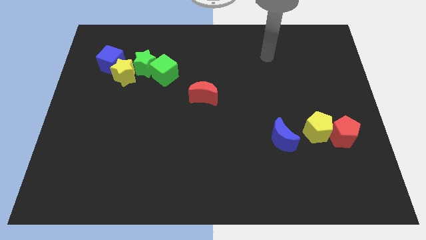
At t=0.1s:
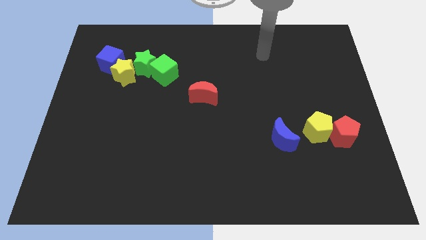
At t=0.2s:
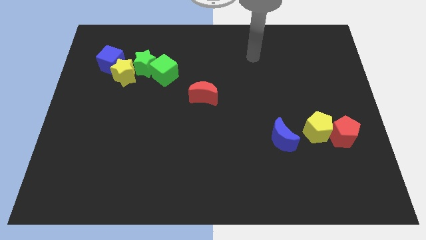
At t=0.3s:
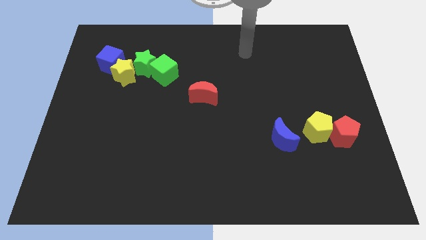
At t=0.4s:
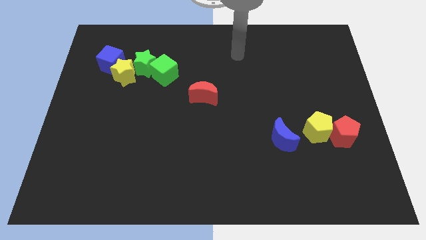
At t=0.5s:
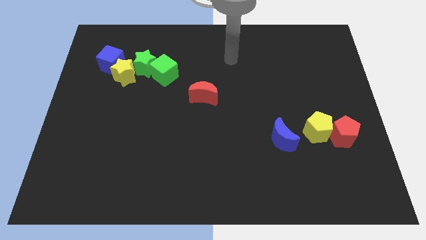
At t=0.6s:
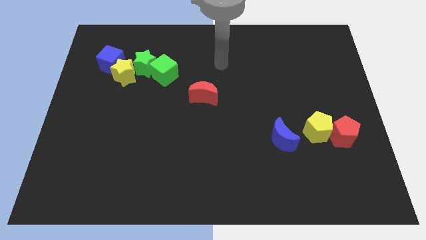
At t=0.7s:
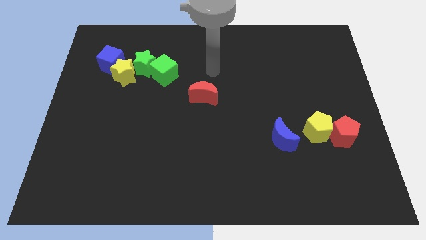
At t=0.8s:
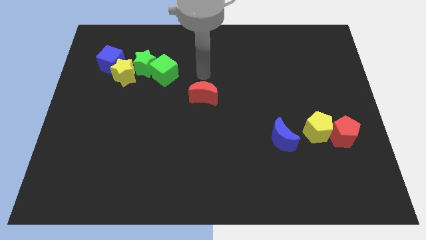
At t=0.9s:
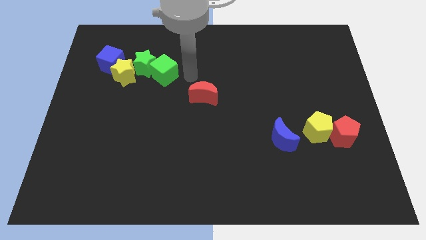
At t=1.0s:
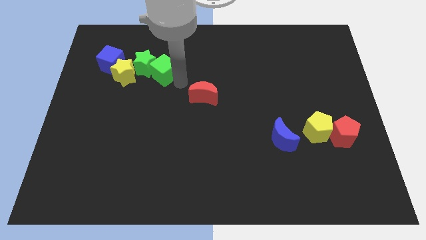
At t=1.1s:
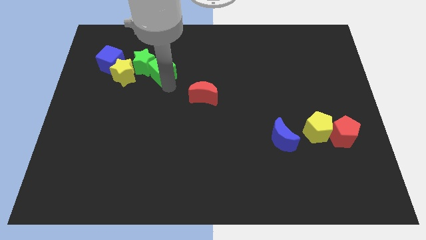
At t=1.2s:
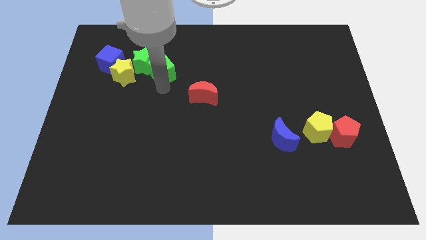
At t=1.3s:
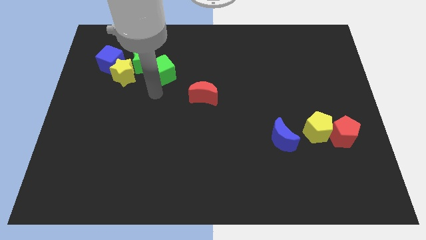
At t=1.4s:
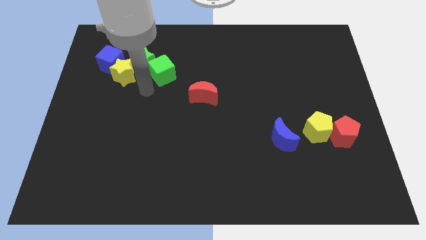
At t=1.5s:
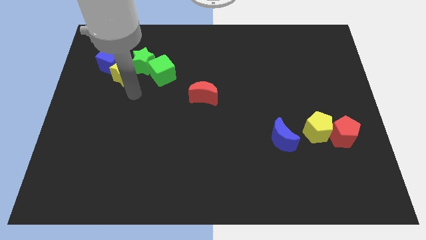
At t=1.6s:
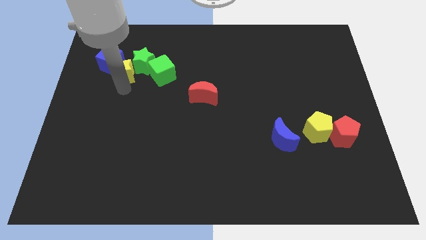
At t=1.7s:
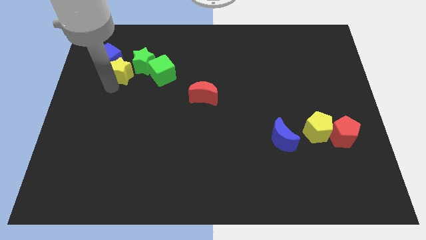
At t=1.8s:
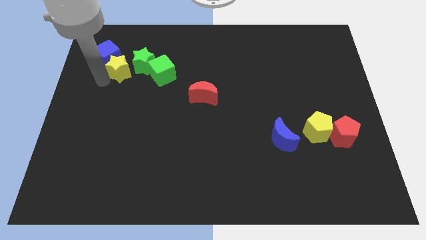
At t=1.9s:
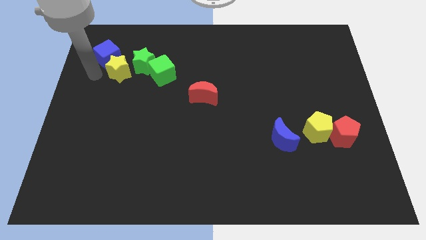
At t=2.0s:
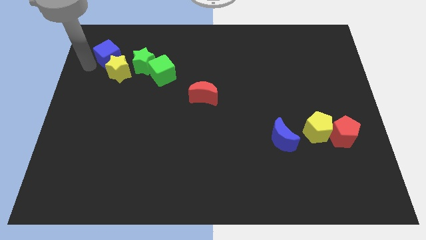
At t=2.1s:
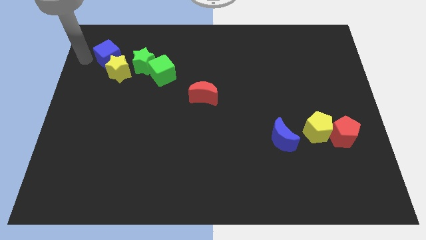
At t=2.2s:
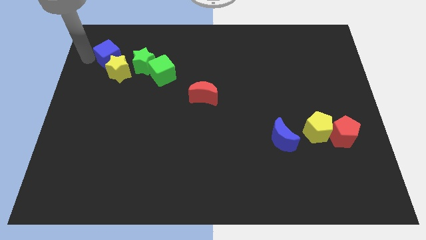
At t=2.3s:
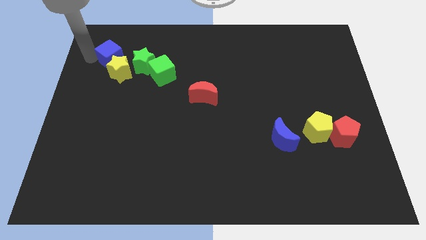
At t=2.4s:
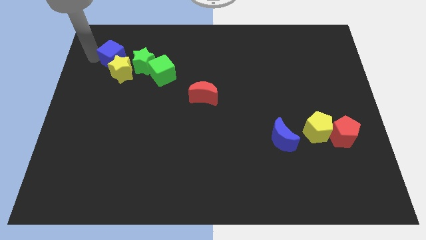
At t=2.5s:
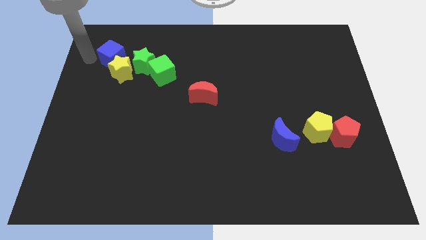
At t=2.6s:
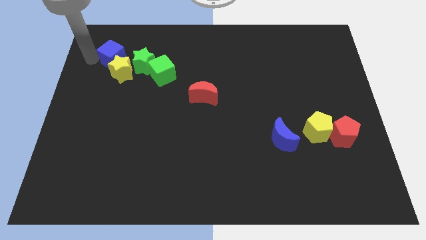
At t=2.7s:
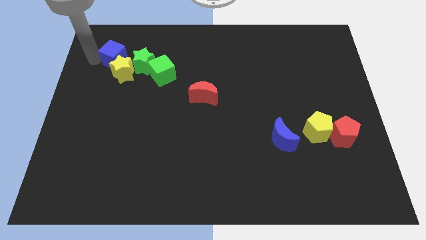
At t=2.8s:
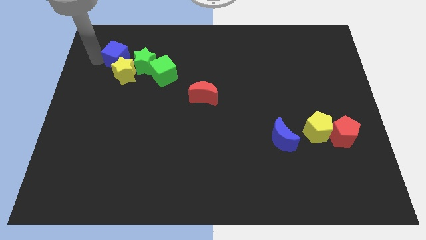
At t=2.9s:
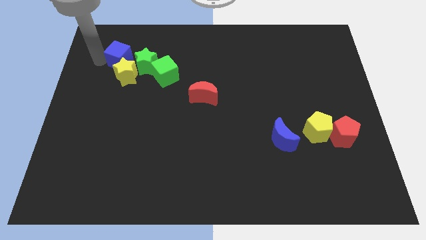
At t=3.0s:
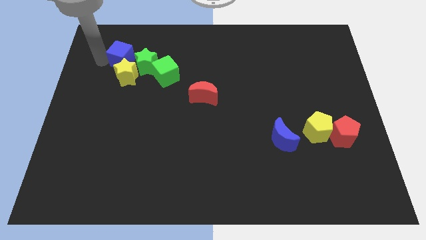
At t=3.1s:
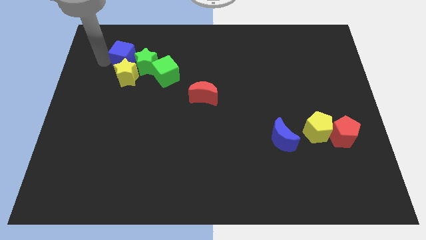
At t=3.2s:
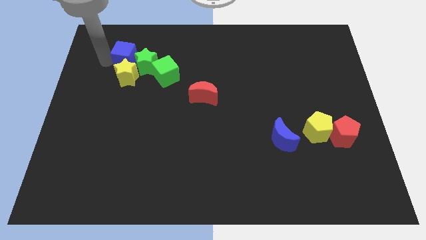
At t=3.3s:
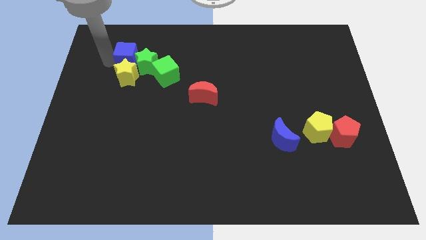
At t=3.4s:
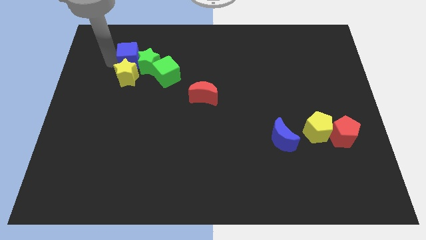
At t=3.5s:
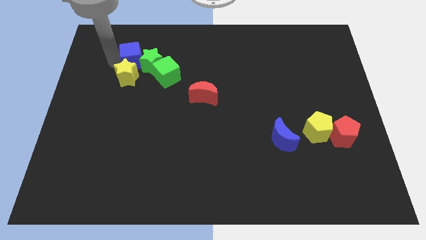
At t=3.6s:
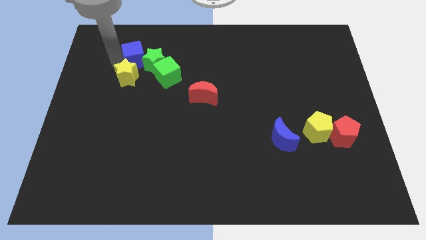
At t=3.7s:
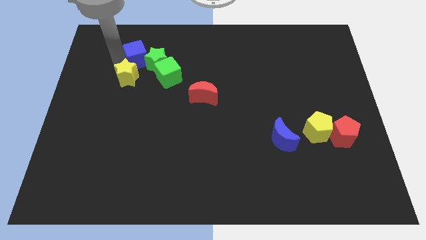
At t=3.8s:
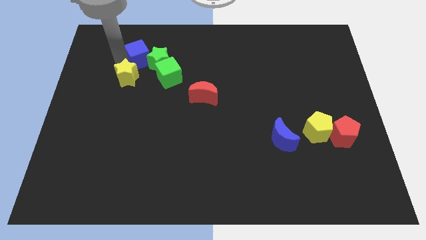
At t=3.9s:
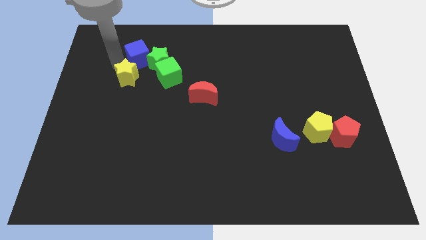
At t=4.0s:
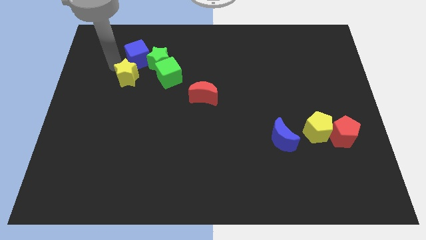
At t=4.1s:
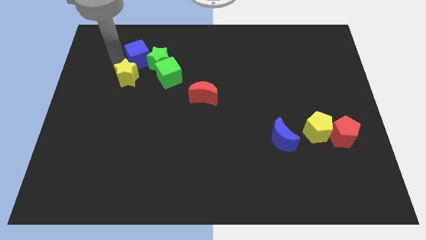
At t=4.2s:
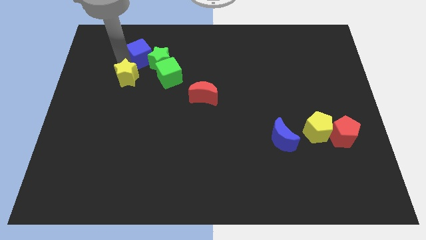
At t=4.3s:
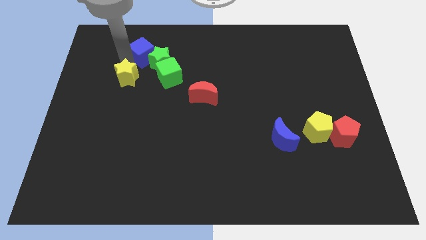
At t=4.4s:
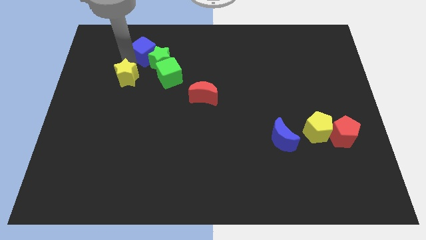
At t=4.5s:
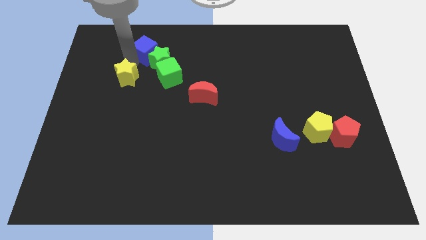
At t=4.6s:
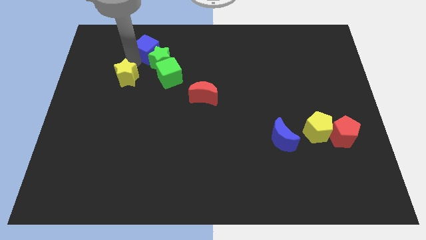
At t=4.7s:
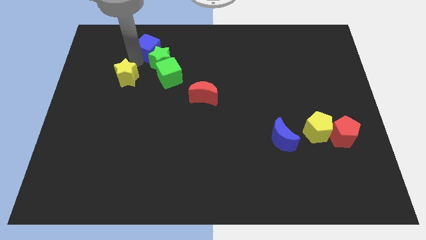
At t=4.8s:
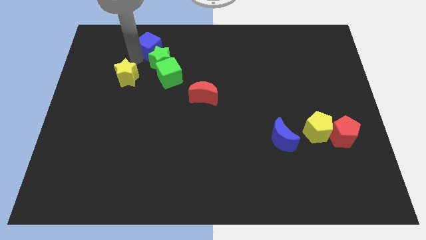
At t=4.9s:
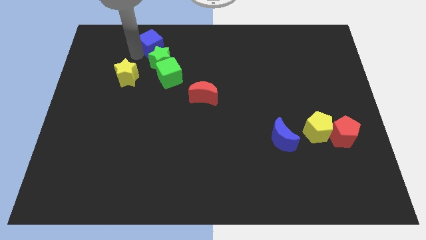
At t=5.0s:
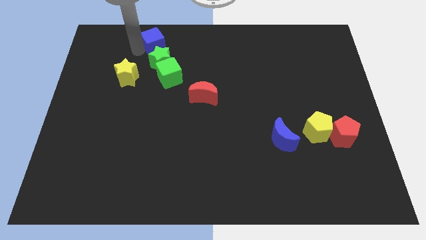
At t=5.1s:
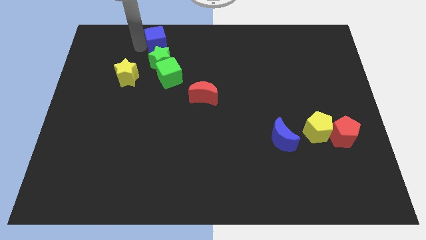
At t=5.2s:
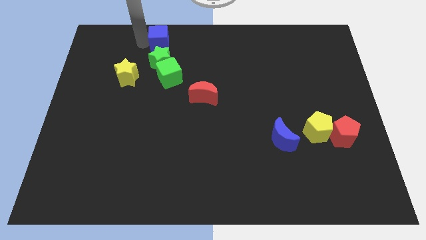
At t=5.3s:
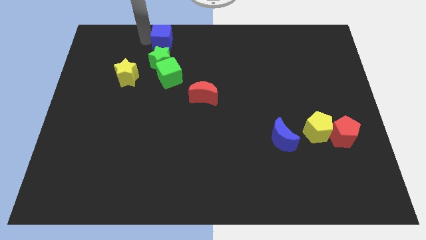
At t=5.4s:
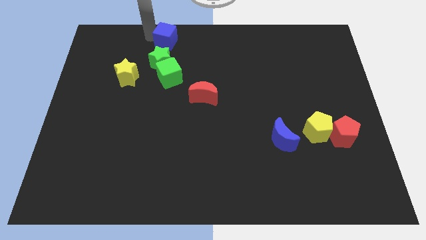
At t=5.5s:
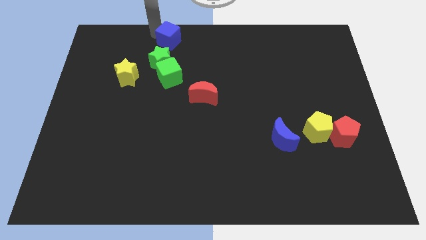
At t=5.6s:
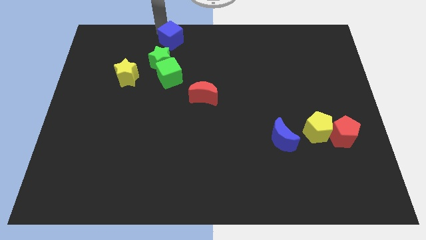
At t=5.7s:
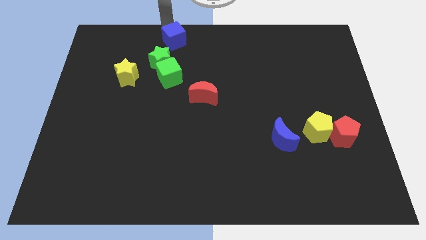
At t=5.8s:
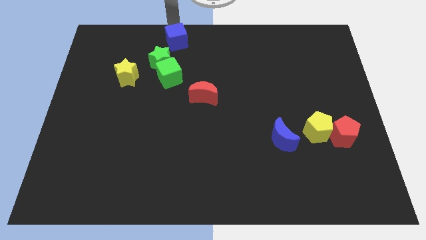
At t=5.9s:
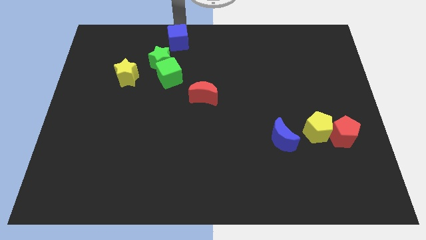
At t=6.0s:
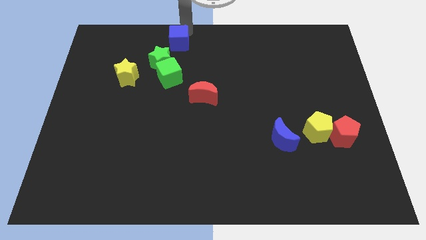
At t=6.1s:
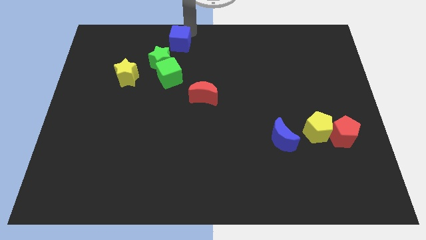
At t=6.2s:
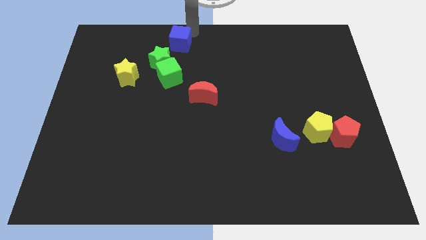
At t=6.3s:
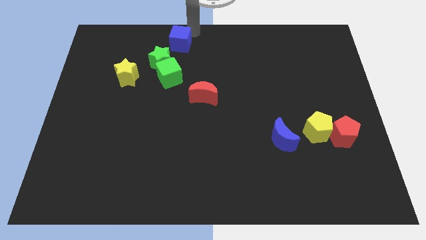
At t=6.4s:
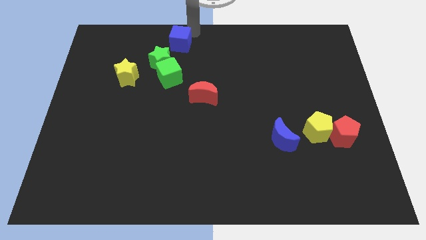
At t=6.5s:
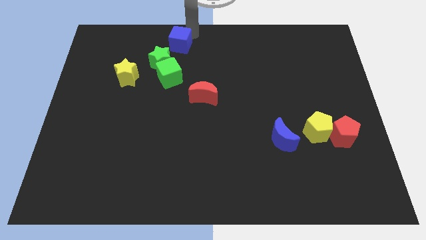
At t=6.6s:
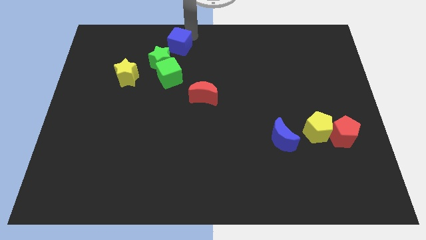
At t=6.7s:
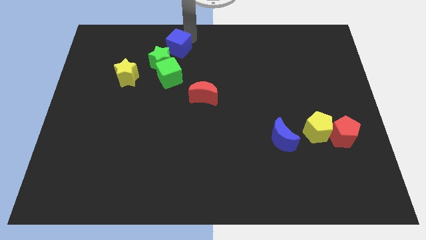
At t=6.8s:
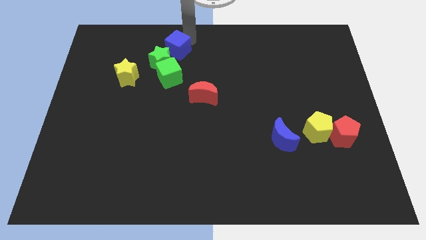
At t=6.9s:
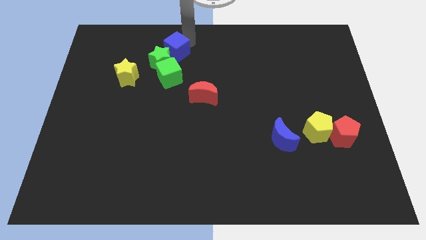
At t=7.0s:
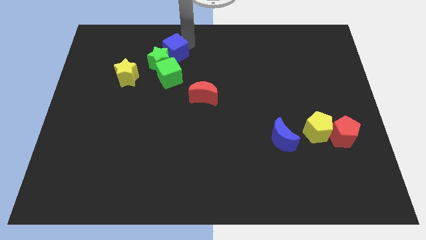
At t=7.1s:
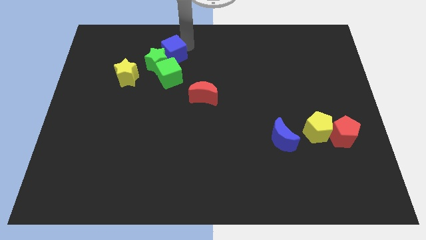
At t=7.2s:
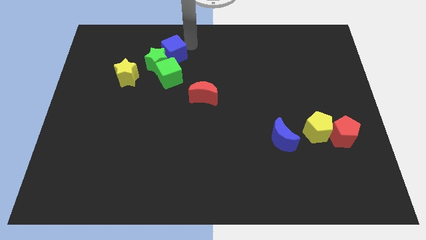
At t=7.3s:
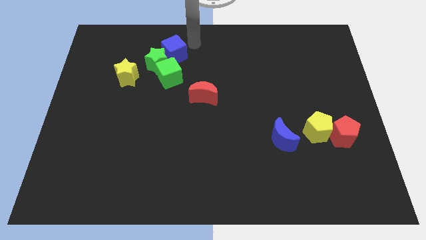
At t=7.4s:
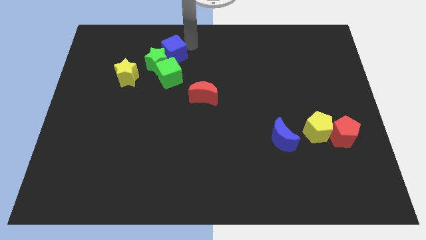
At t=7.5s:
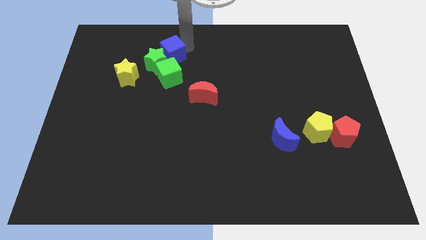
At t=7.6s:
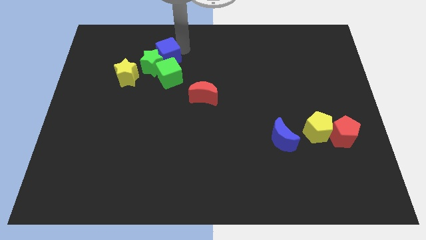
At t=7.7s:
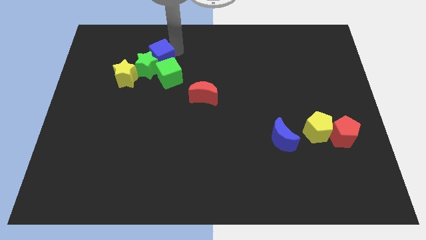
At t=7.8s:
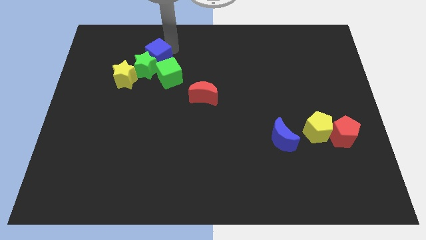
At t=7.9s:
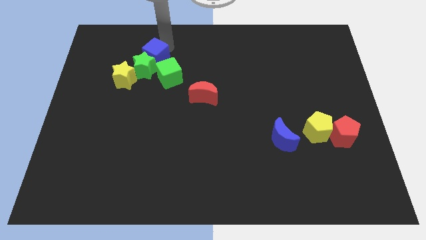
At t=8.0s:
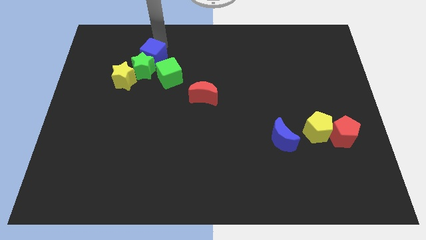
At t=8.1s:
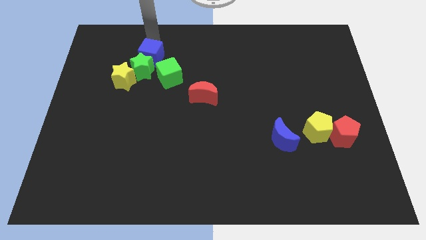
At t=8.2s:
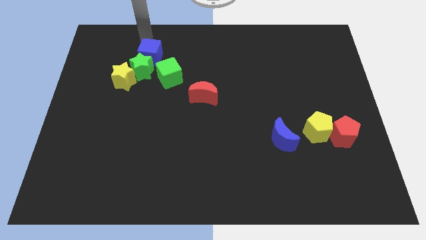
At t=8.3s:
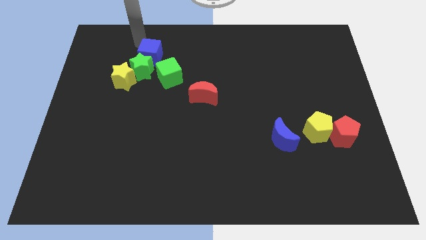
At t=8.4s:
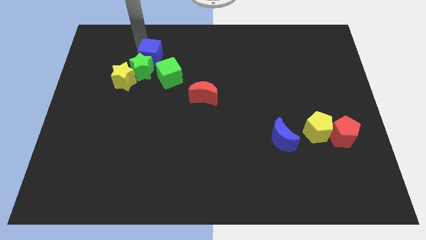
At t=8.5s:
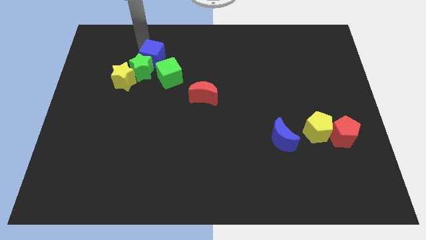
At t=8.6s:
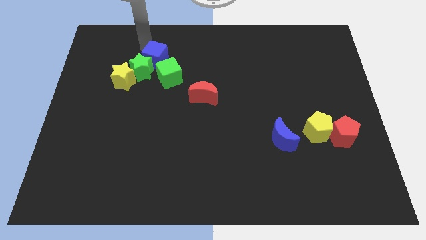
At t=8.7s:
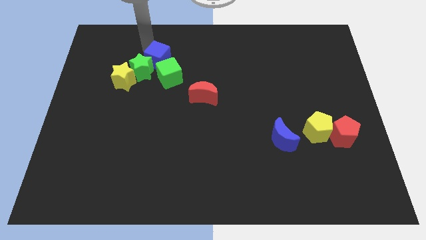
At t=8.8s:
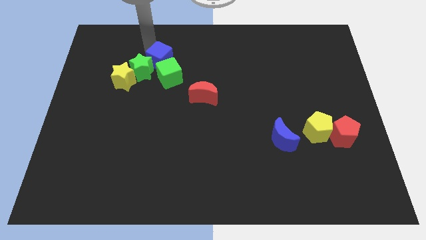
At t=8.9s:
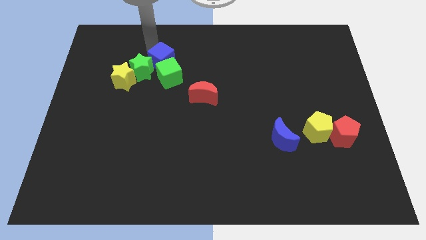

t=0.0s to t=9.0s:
put the blue cube to the green cube
